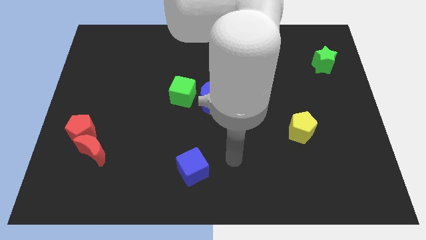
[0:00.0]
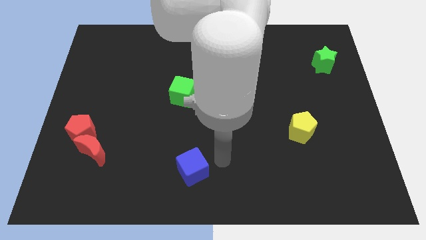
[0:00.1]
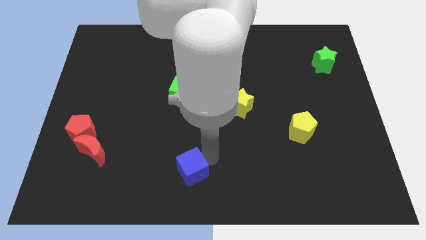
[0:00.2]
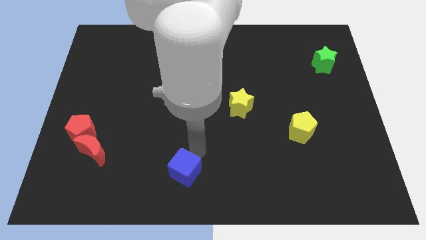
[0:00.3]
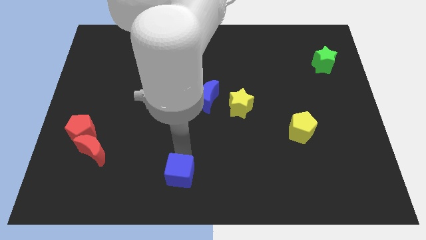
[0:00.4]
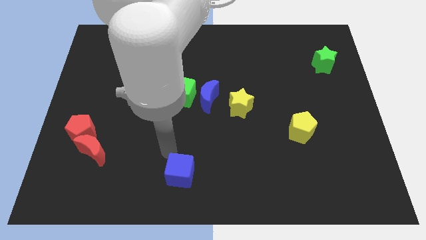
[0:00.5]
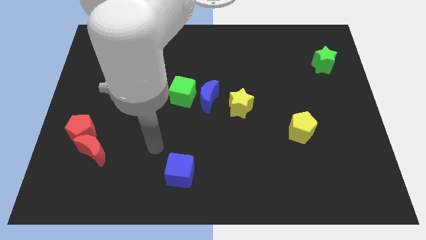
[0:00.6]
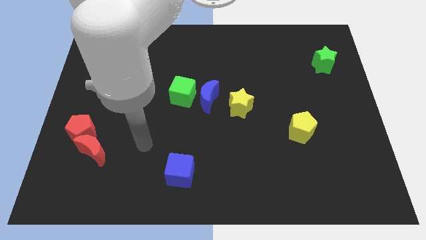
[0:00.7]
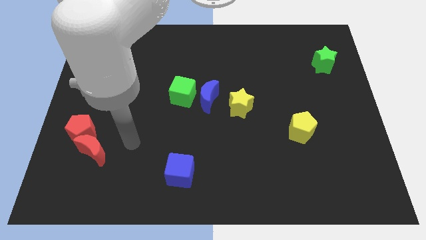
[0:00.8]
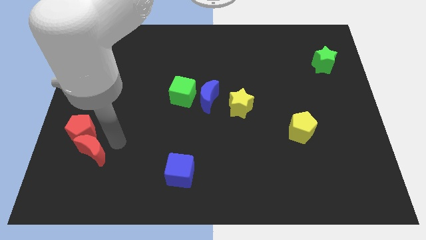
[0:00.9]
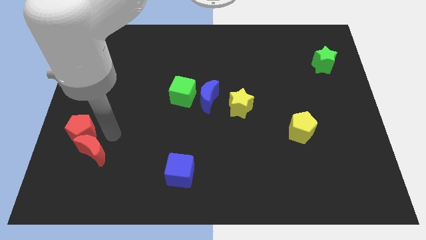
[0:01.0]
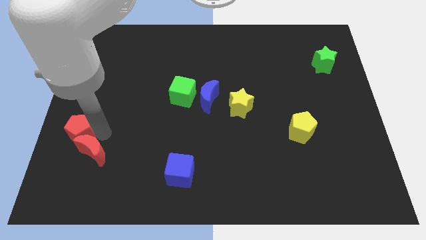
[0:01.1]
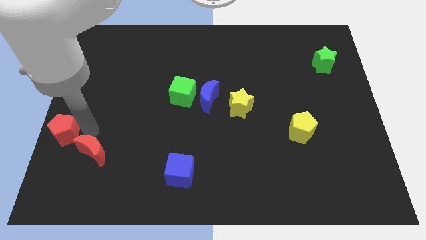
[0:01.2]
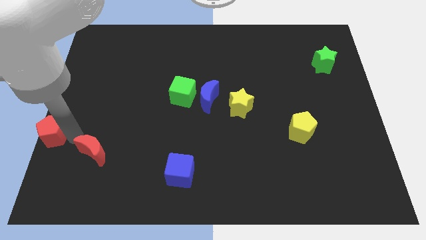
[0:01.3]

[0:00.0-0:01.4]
move the red moon away from the red pentagon

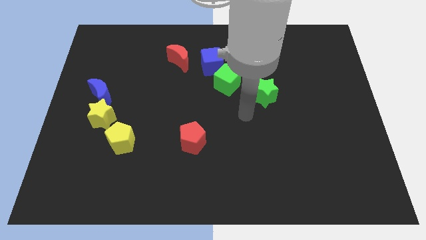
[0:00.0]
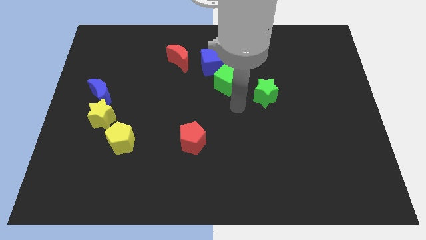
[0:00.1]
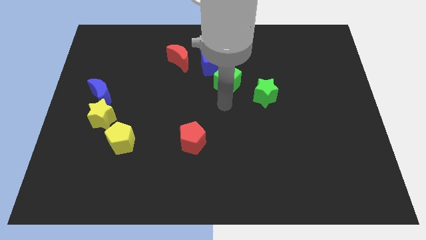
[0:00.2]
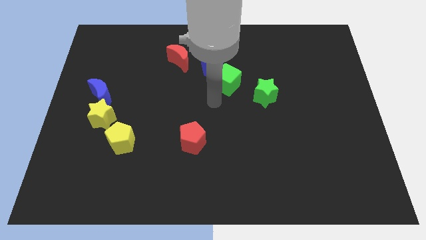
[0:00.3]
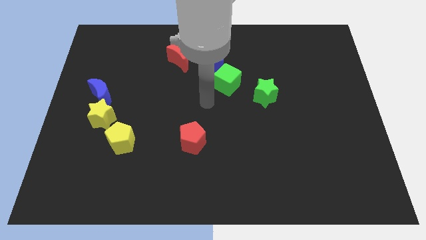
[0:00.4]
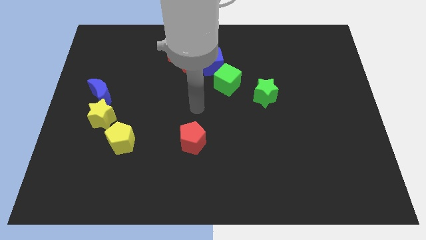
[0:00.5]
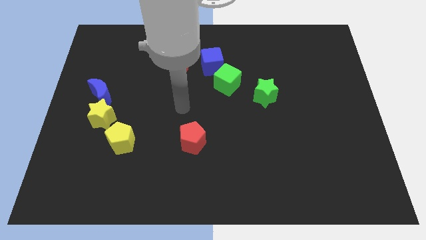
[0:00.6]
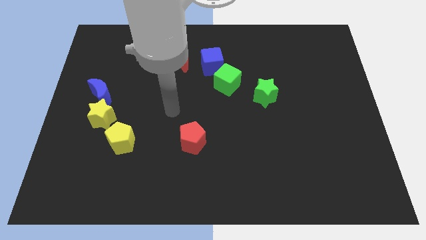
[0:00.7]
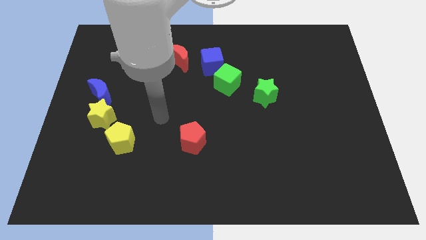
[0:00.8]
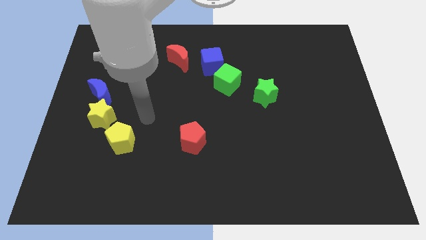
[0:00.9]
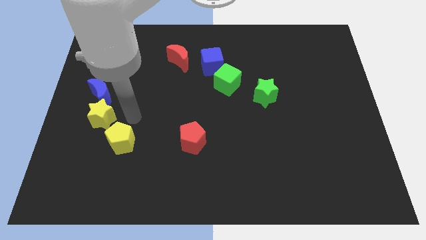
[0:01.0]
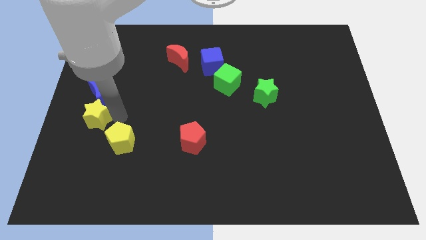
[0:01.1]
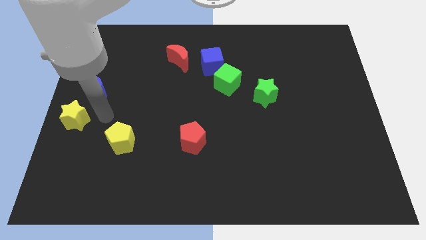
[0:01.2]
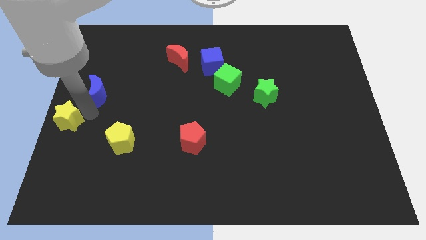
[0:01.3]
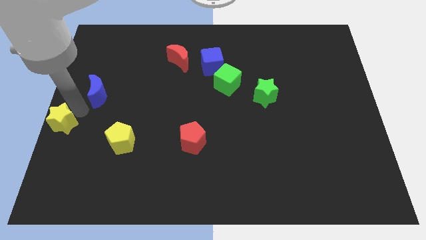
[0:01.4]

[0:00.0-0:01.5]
pull the blue moon apart from the yellow star

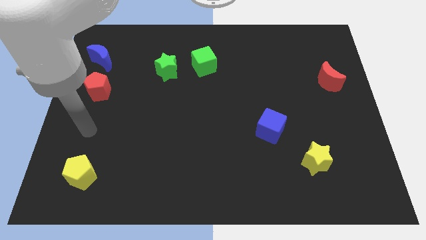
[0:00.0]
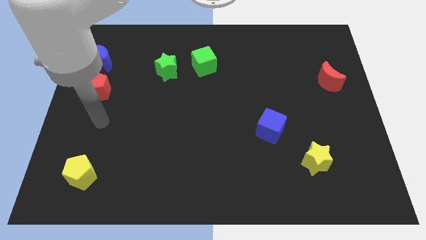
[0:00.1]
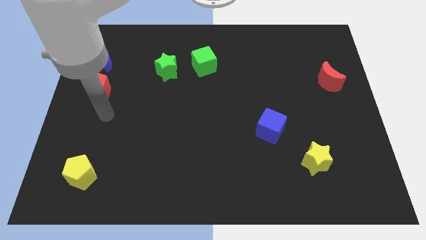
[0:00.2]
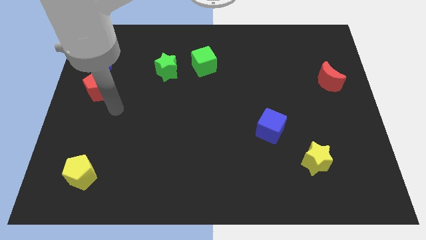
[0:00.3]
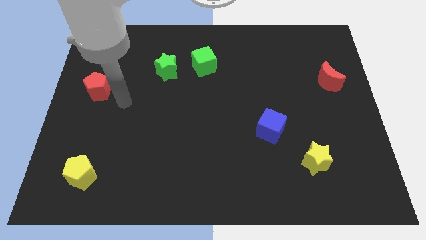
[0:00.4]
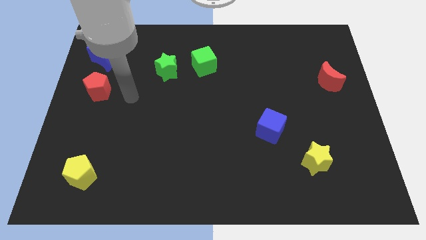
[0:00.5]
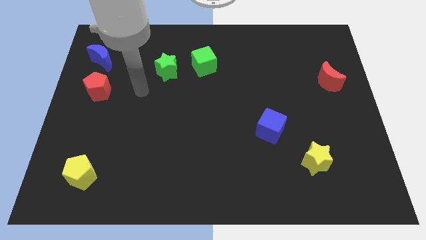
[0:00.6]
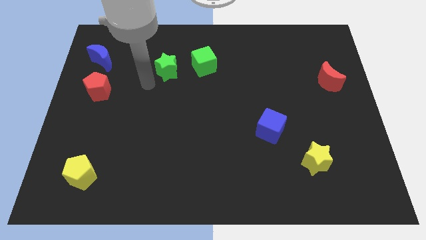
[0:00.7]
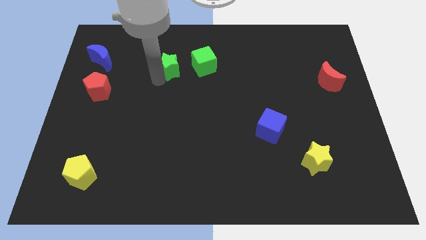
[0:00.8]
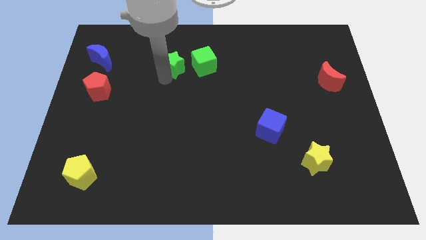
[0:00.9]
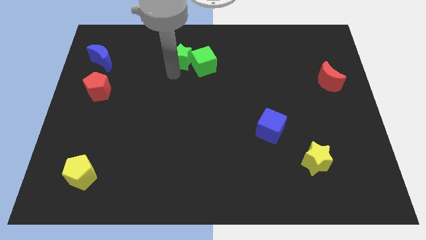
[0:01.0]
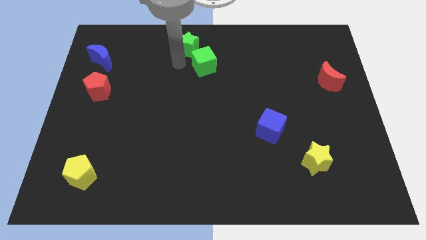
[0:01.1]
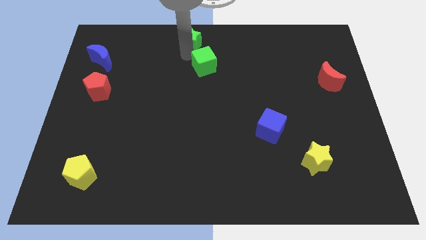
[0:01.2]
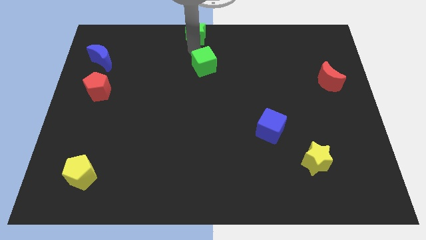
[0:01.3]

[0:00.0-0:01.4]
move the green cube away from the green star

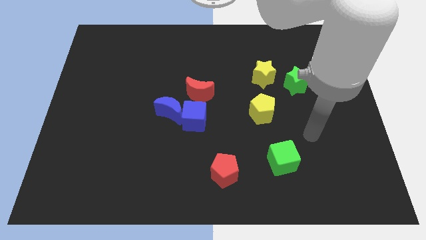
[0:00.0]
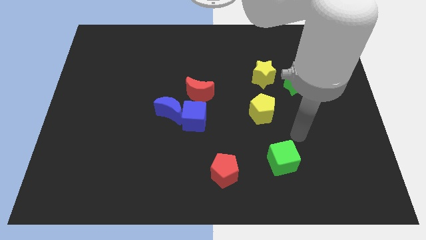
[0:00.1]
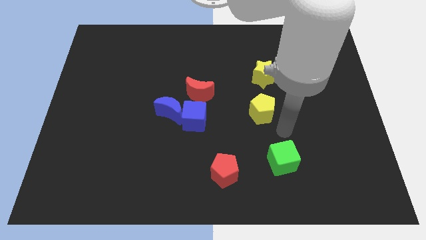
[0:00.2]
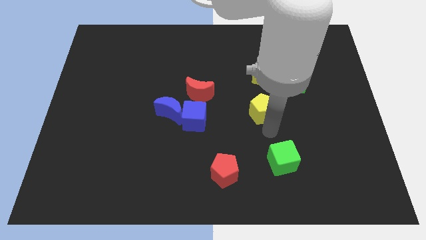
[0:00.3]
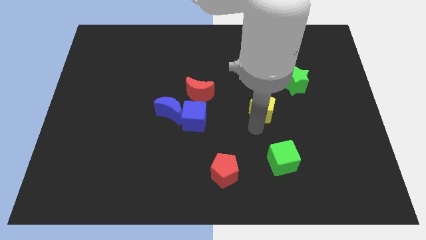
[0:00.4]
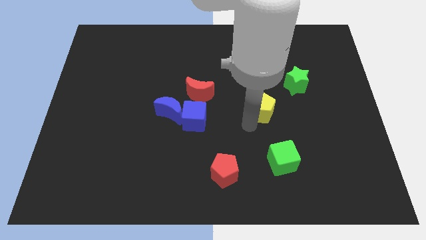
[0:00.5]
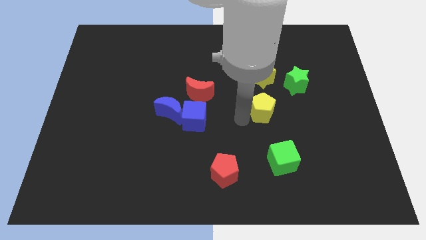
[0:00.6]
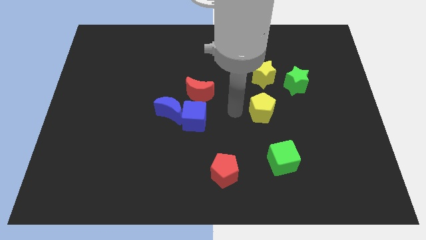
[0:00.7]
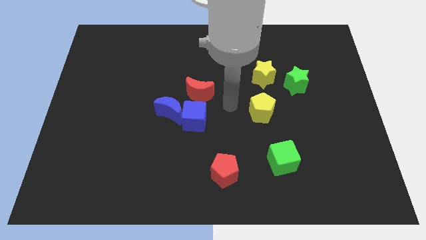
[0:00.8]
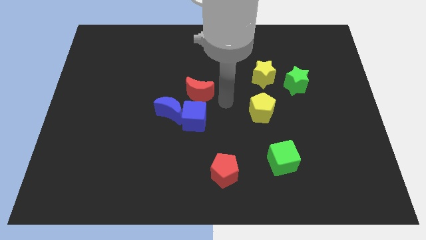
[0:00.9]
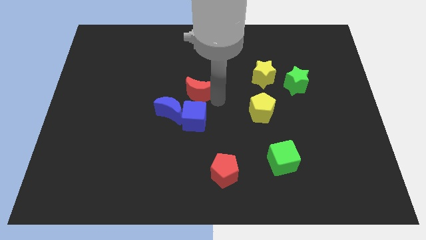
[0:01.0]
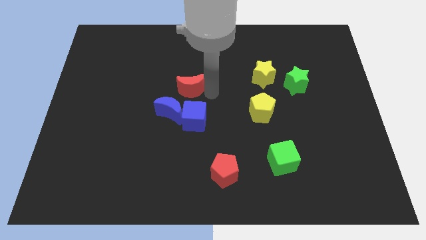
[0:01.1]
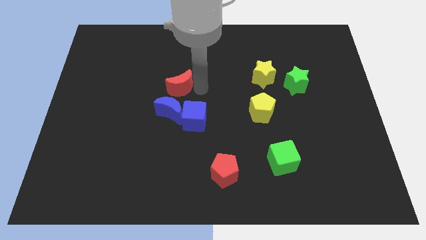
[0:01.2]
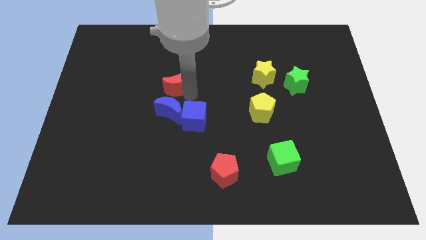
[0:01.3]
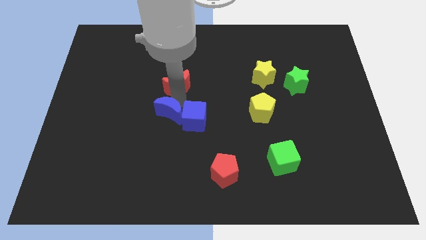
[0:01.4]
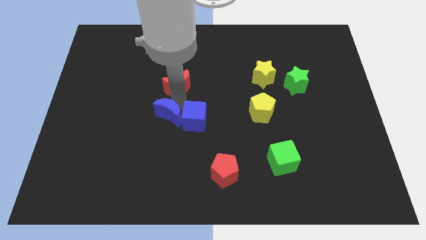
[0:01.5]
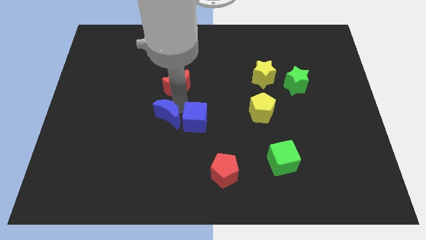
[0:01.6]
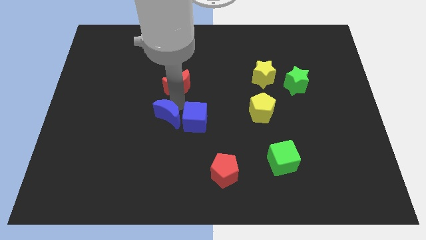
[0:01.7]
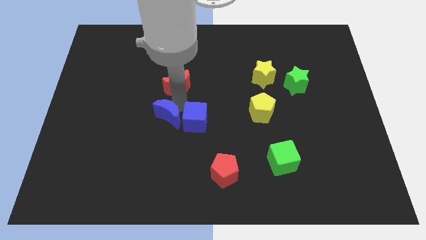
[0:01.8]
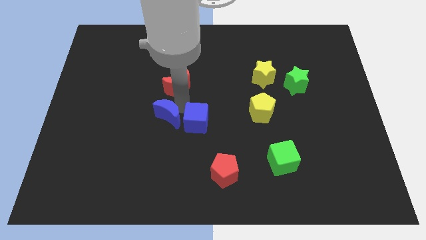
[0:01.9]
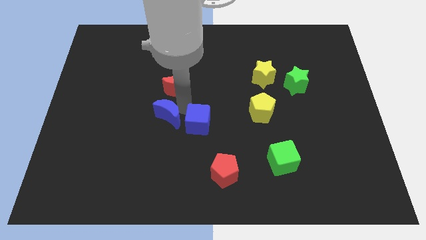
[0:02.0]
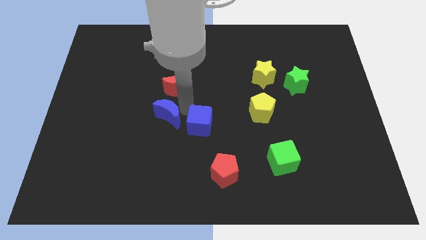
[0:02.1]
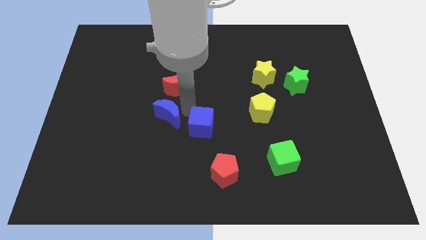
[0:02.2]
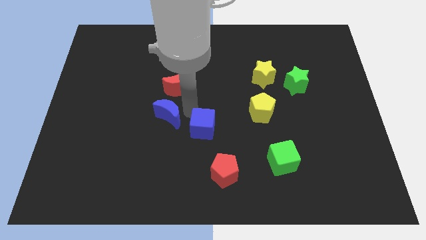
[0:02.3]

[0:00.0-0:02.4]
pull the blue cube apart from the blue moon and red moon

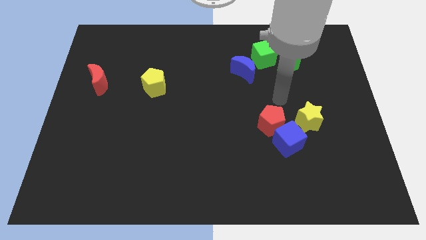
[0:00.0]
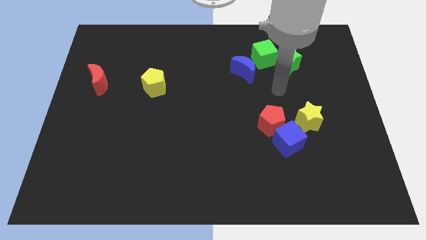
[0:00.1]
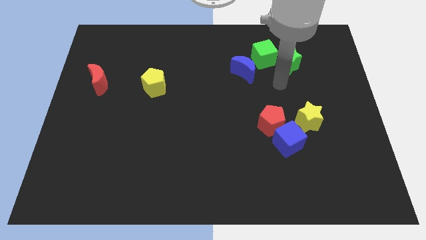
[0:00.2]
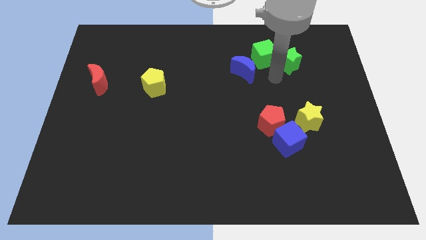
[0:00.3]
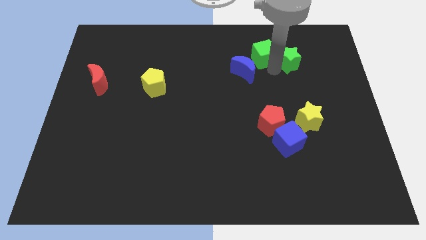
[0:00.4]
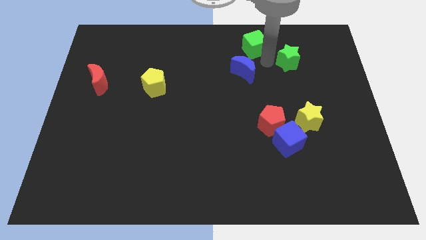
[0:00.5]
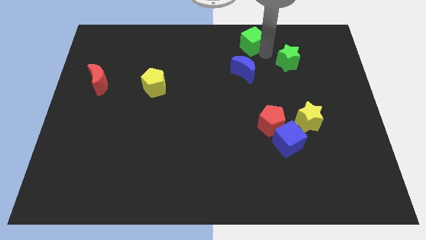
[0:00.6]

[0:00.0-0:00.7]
pull the green star apart from the green cube

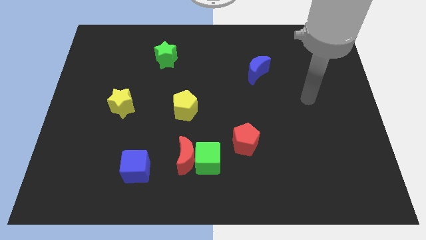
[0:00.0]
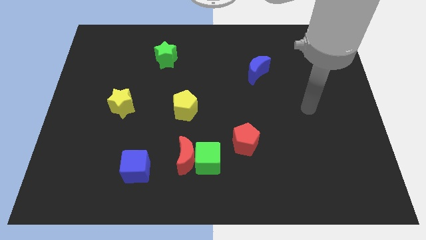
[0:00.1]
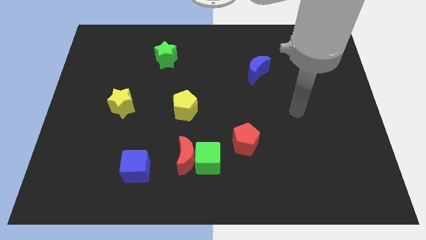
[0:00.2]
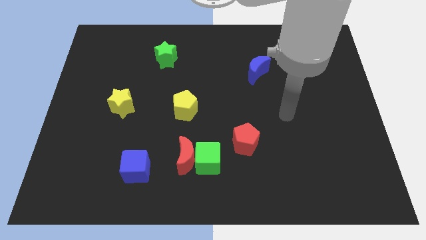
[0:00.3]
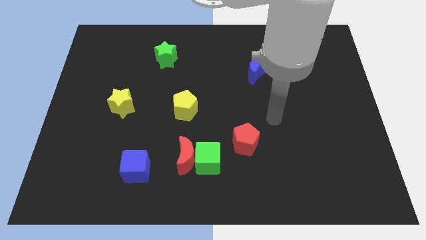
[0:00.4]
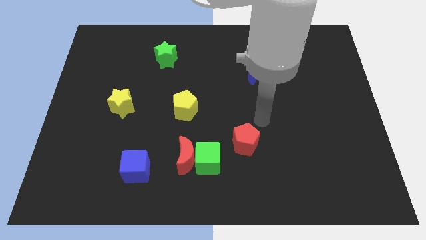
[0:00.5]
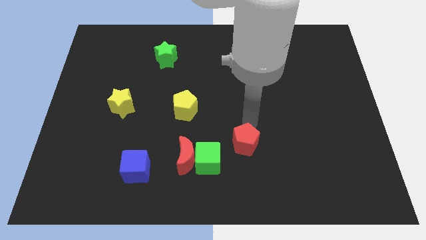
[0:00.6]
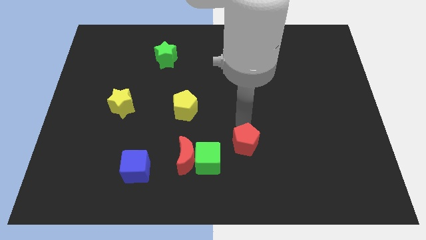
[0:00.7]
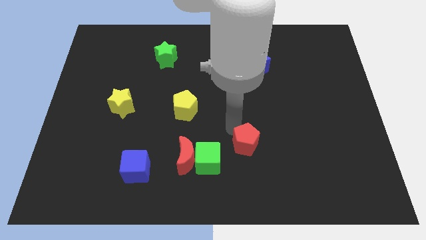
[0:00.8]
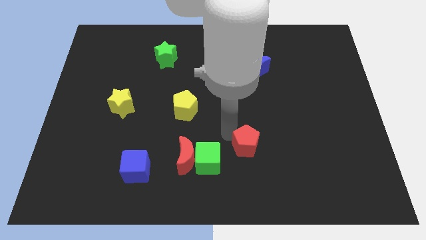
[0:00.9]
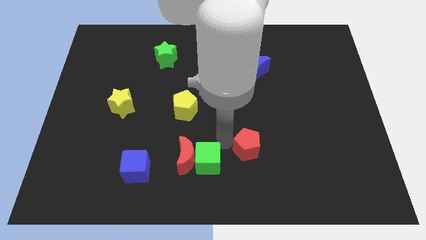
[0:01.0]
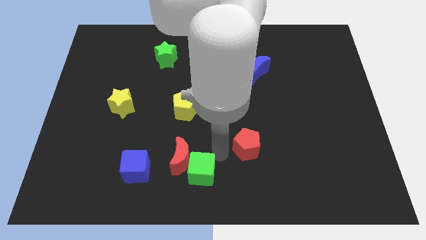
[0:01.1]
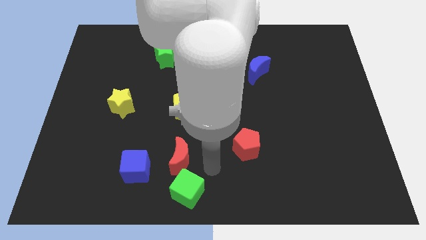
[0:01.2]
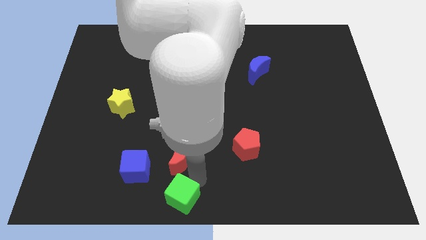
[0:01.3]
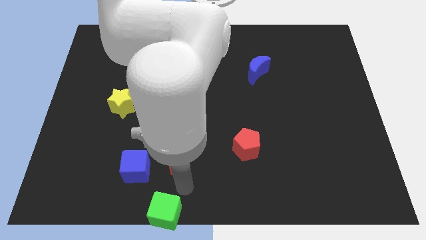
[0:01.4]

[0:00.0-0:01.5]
pull the red moon apart from the green cube

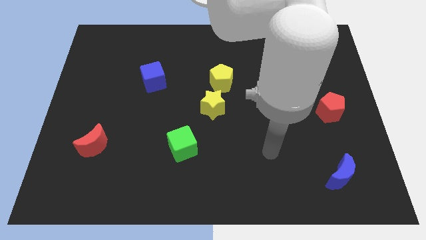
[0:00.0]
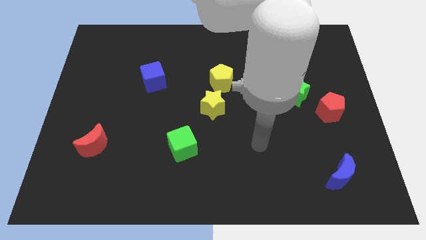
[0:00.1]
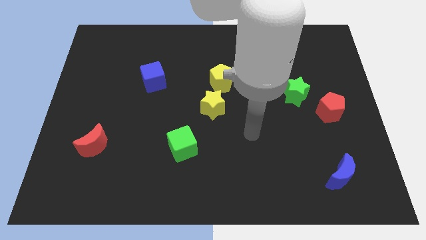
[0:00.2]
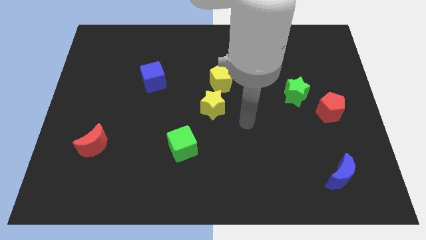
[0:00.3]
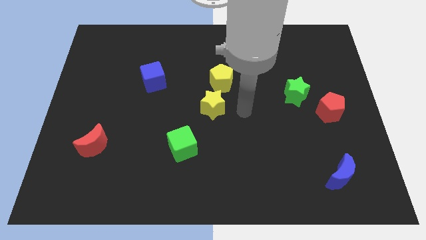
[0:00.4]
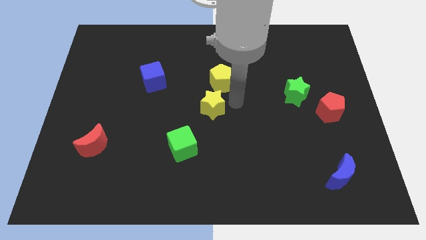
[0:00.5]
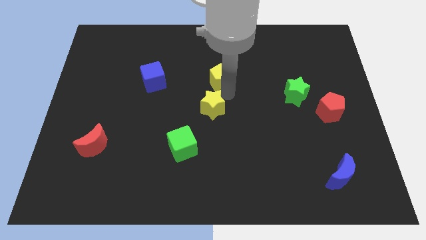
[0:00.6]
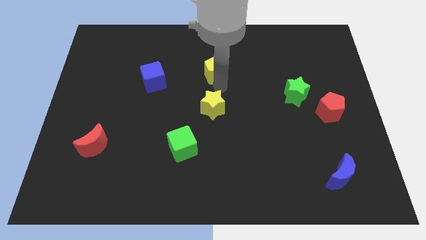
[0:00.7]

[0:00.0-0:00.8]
pull the yellow star apart from the yellow pentagon
